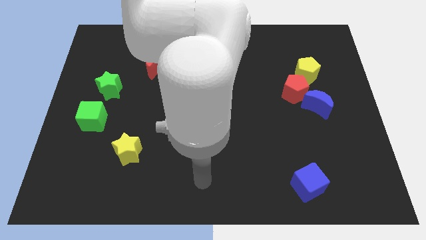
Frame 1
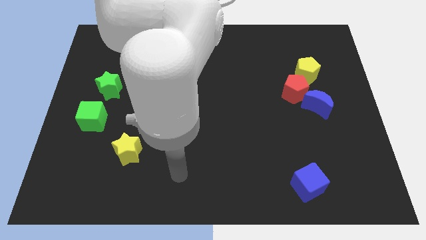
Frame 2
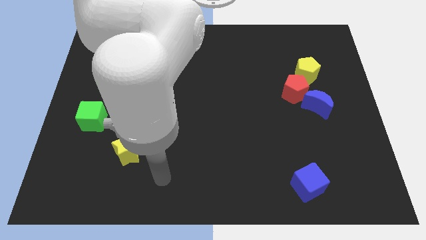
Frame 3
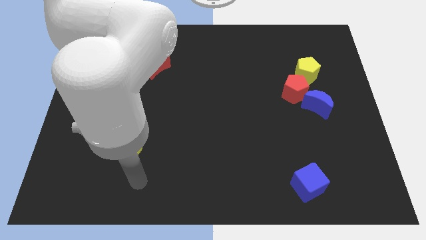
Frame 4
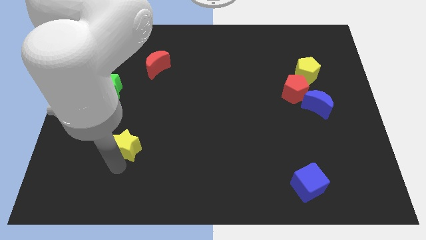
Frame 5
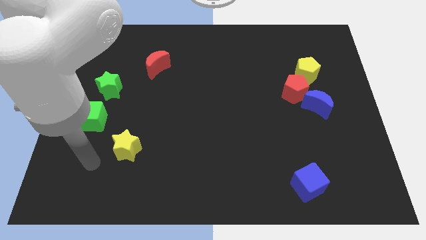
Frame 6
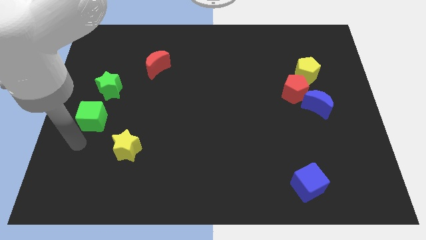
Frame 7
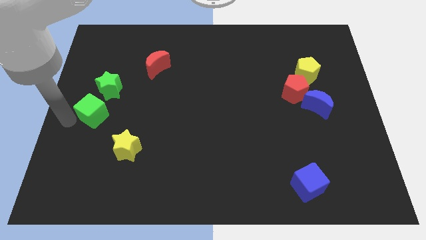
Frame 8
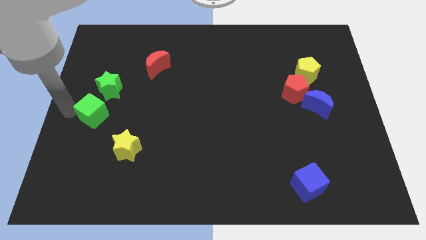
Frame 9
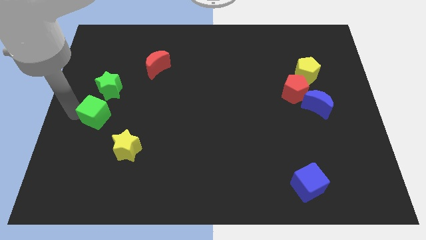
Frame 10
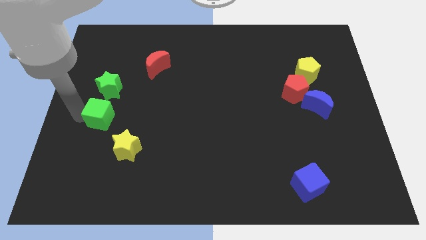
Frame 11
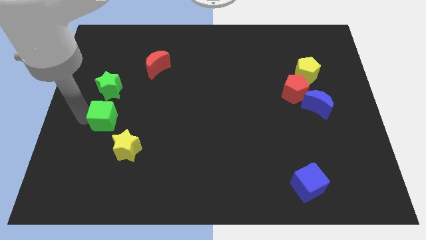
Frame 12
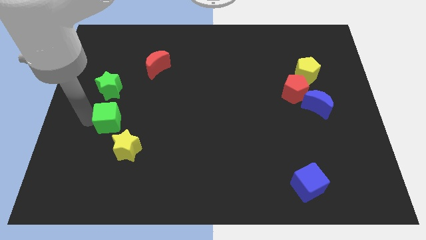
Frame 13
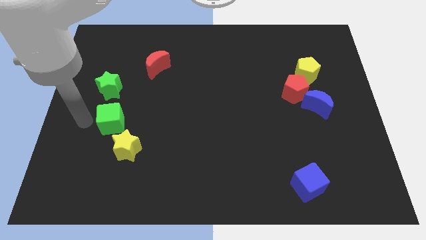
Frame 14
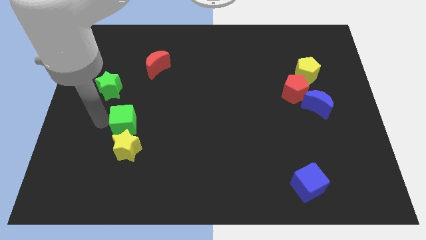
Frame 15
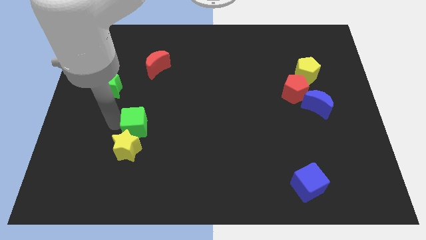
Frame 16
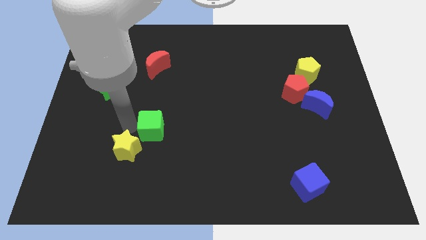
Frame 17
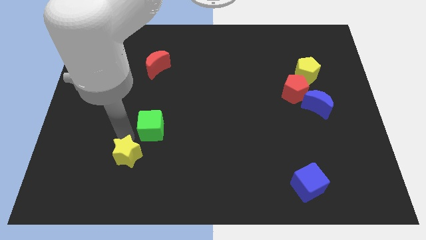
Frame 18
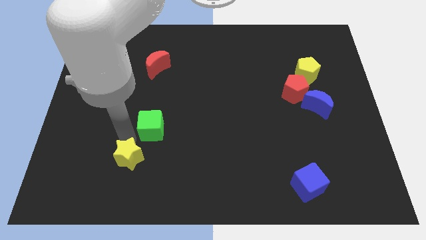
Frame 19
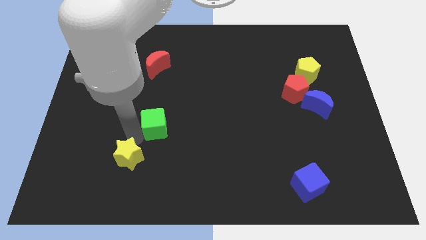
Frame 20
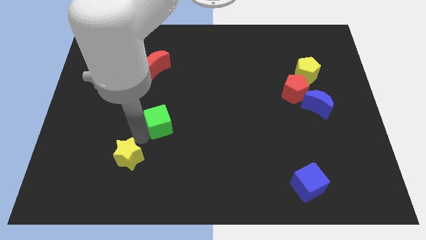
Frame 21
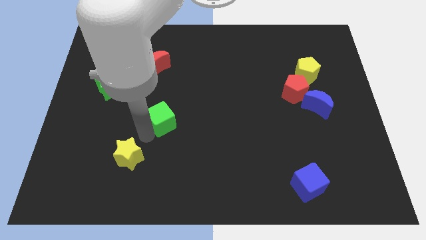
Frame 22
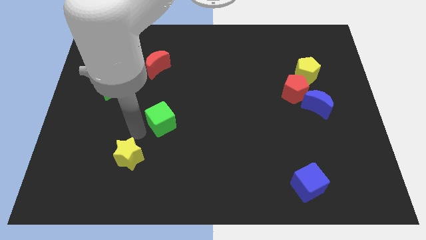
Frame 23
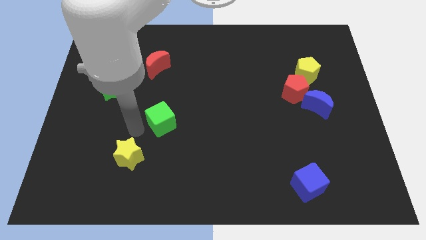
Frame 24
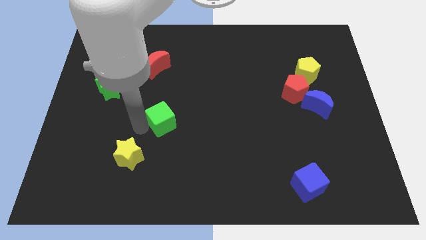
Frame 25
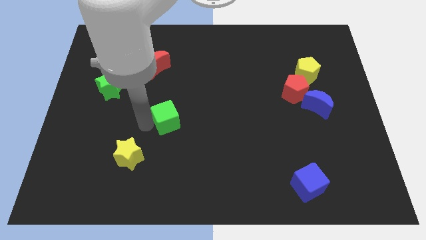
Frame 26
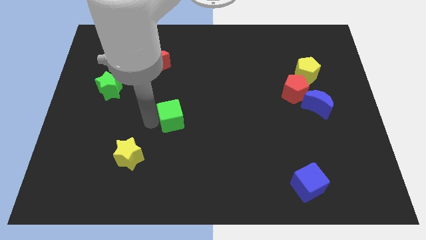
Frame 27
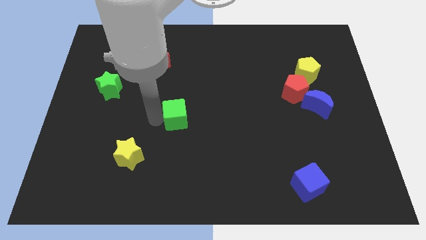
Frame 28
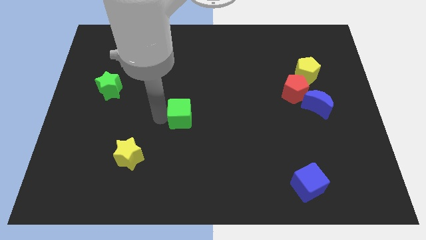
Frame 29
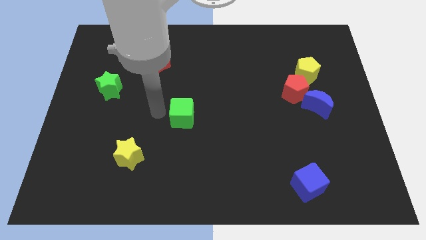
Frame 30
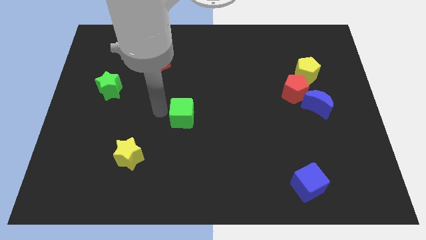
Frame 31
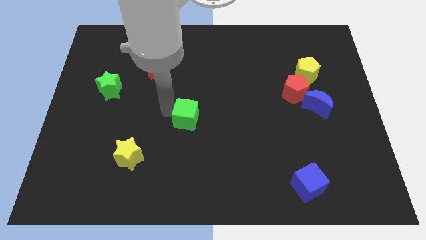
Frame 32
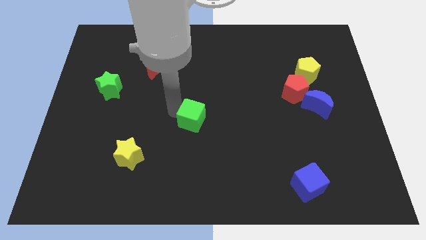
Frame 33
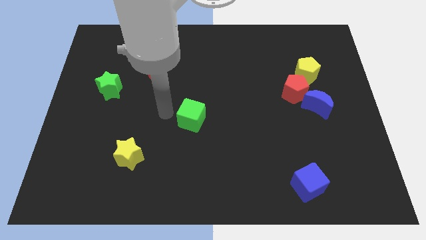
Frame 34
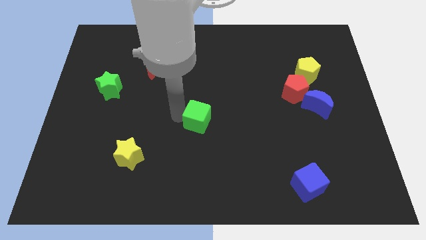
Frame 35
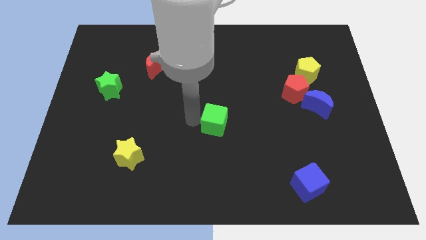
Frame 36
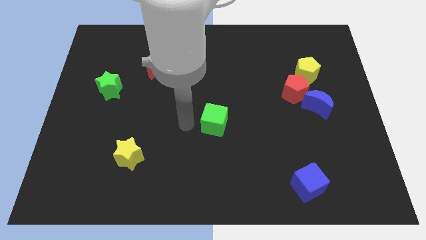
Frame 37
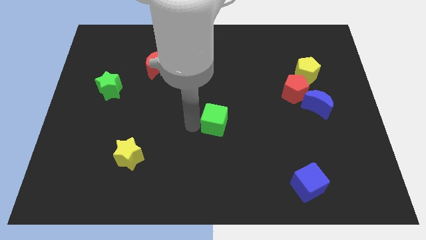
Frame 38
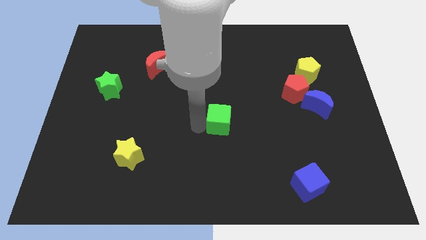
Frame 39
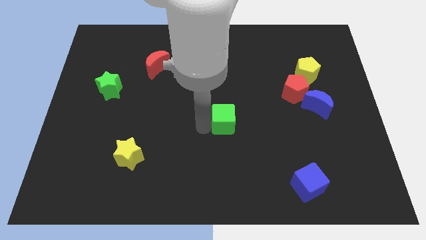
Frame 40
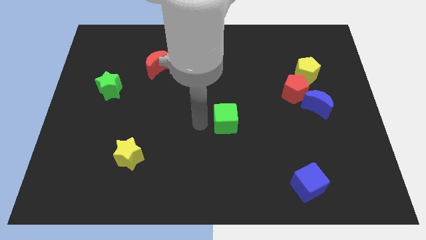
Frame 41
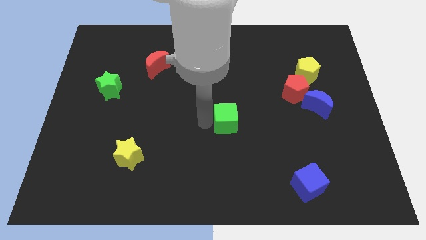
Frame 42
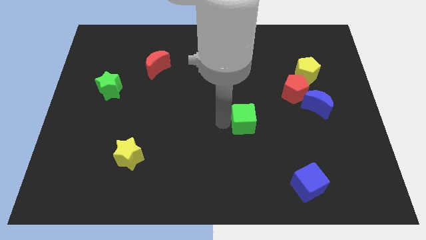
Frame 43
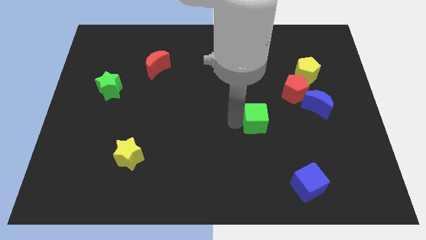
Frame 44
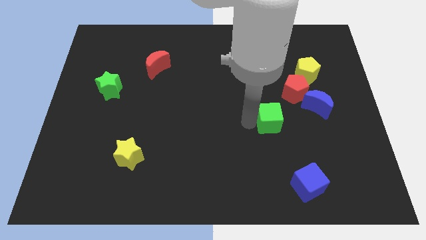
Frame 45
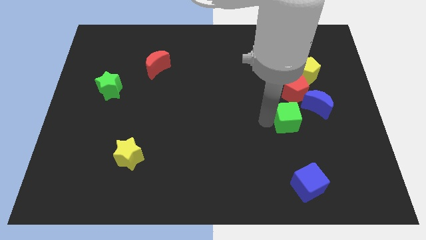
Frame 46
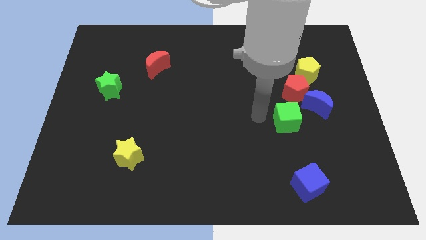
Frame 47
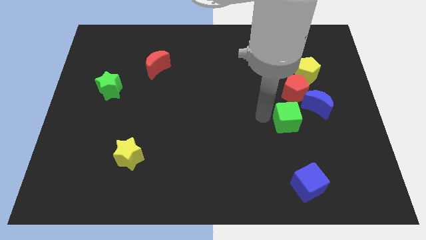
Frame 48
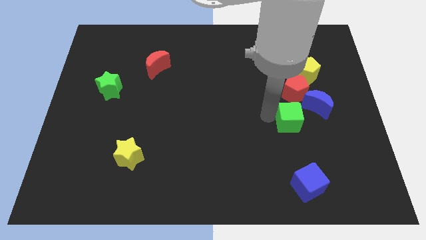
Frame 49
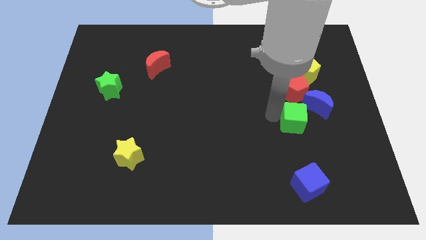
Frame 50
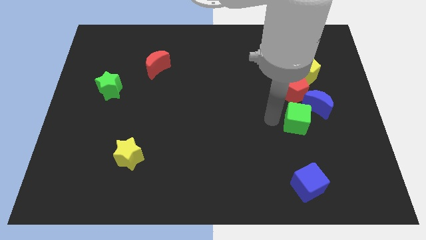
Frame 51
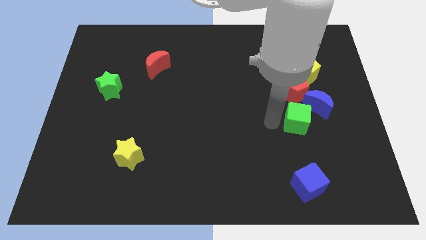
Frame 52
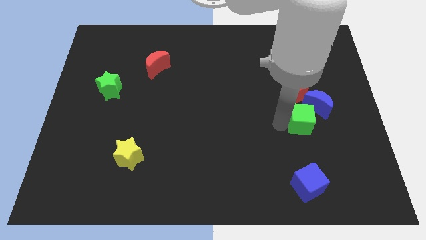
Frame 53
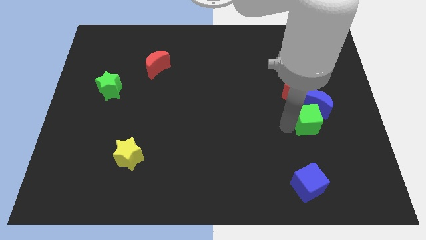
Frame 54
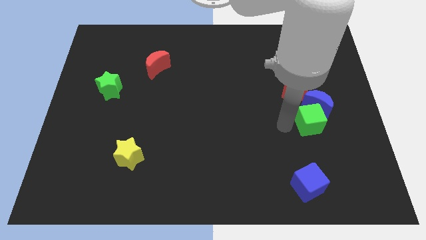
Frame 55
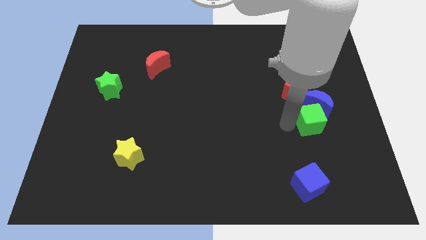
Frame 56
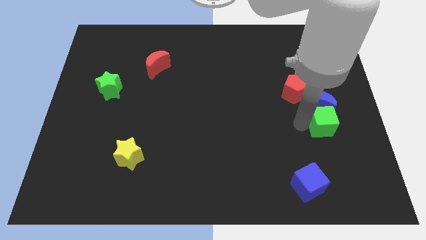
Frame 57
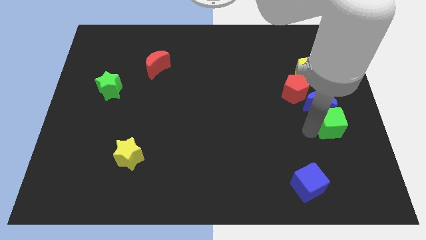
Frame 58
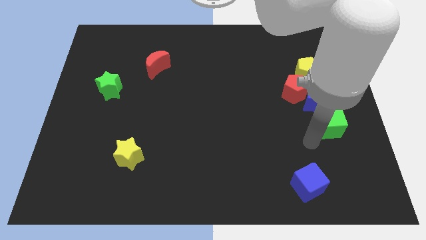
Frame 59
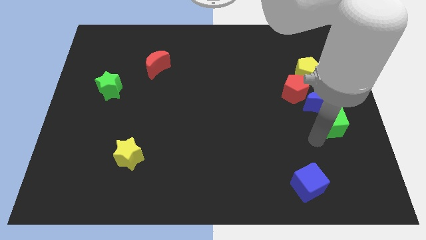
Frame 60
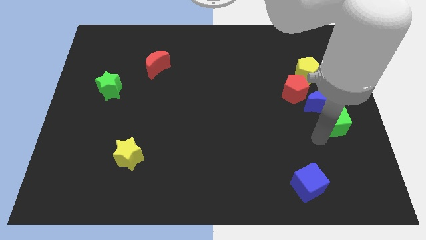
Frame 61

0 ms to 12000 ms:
push the green cube to the right side

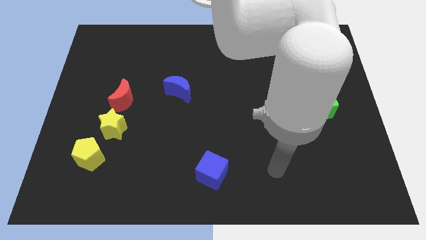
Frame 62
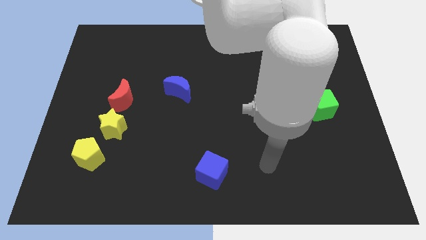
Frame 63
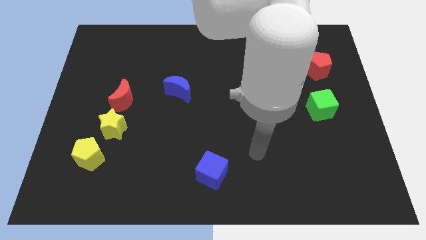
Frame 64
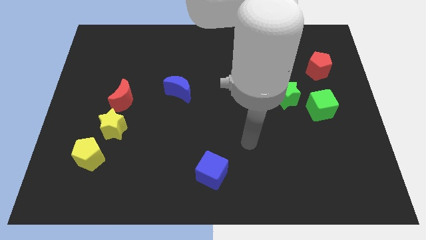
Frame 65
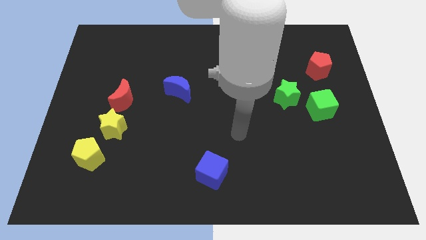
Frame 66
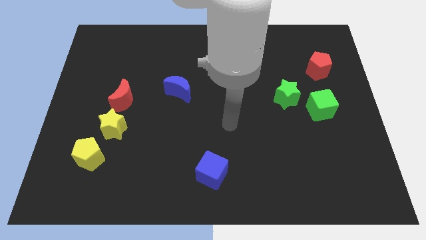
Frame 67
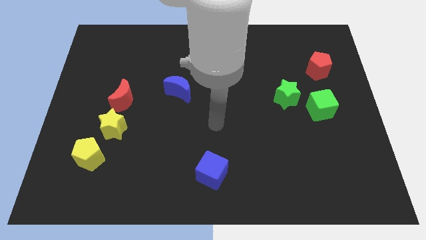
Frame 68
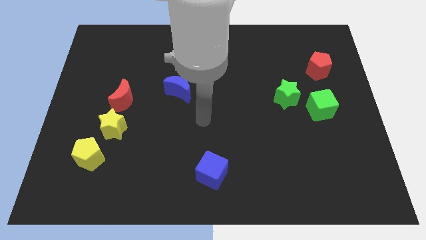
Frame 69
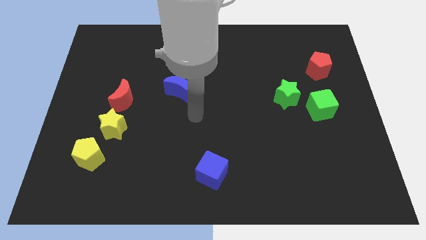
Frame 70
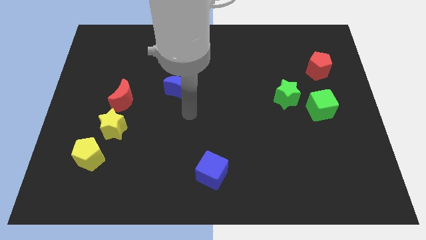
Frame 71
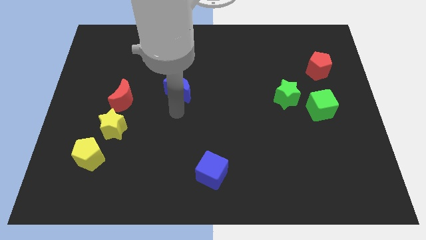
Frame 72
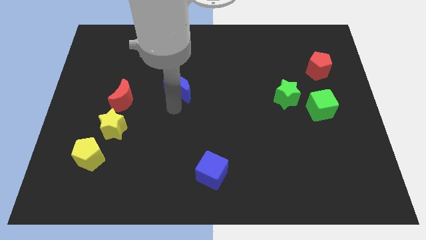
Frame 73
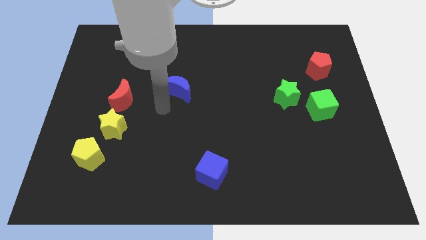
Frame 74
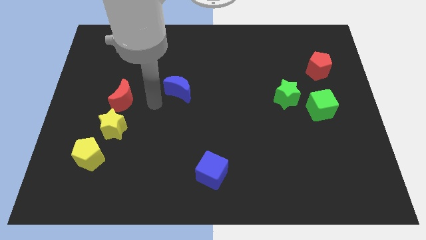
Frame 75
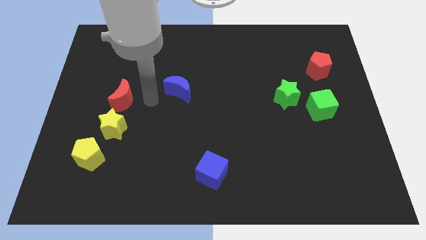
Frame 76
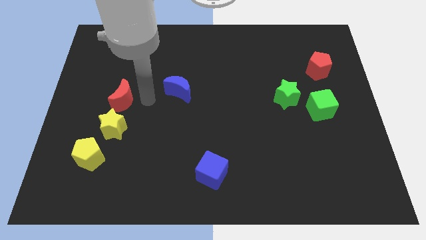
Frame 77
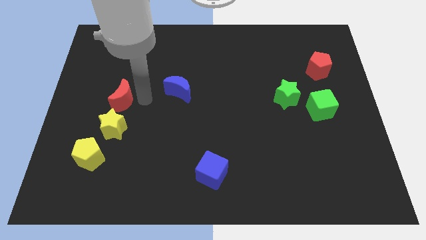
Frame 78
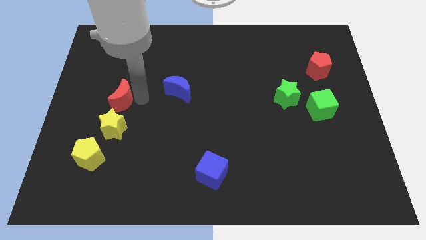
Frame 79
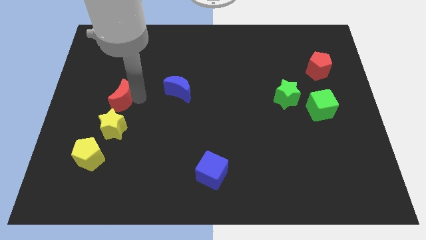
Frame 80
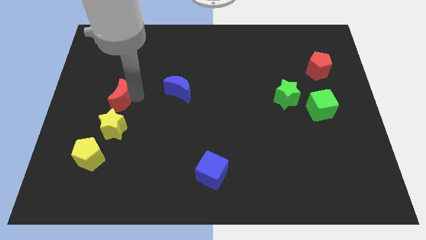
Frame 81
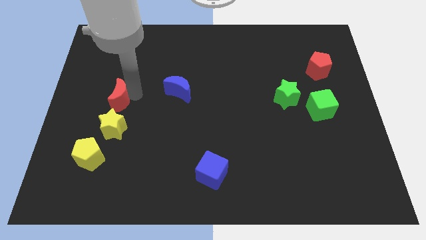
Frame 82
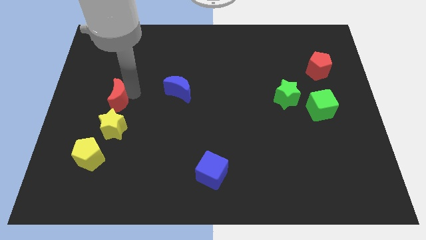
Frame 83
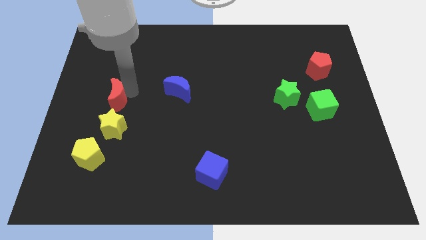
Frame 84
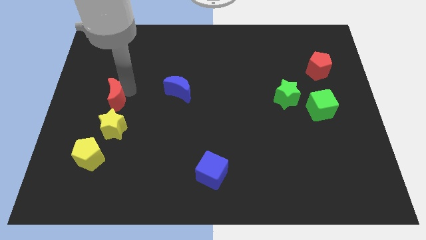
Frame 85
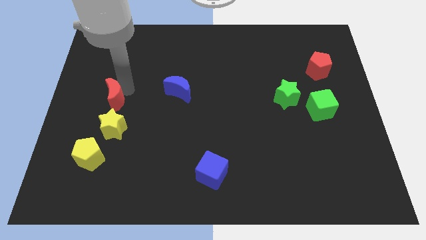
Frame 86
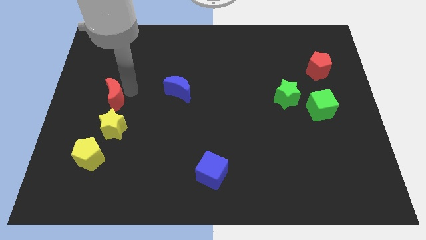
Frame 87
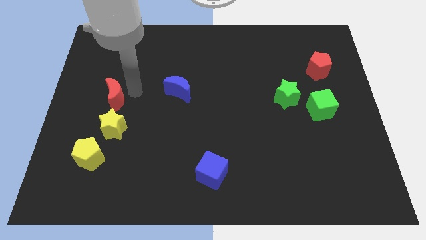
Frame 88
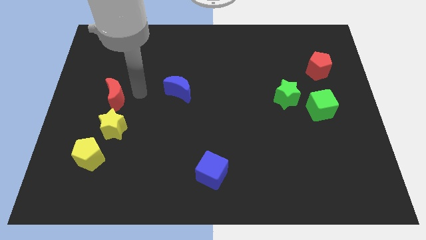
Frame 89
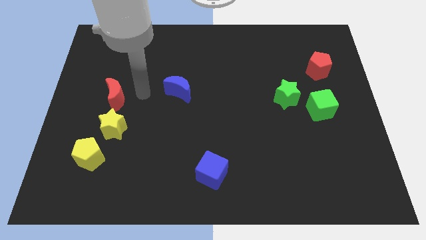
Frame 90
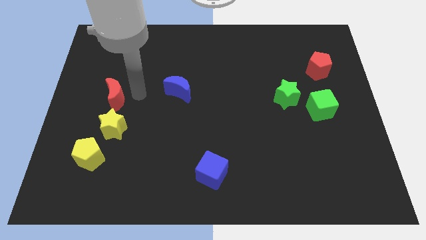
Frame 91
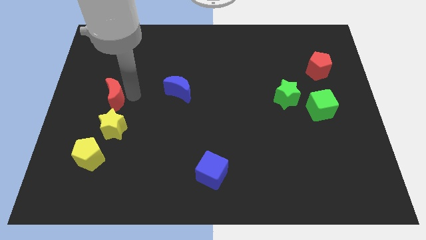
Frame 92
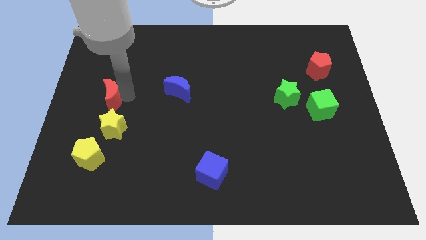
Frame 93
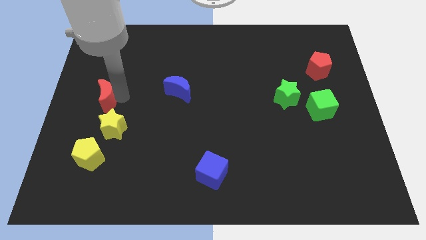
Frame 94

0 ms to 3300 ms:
move the red moon to the center left
